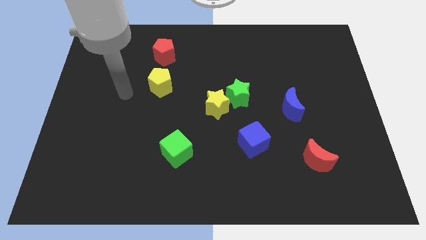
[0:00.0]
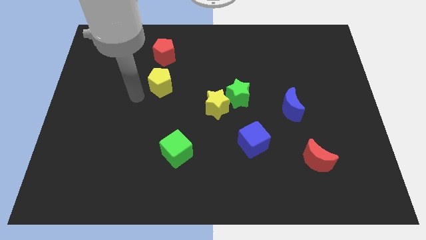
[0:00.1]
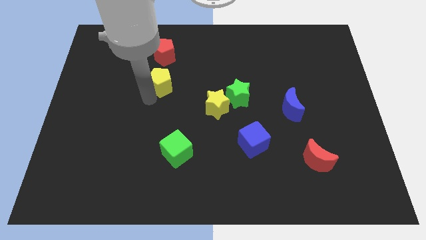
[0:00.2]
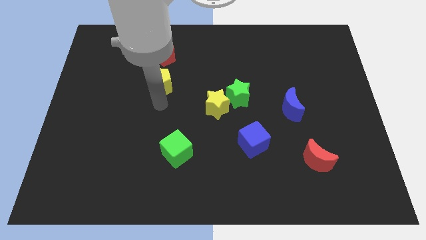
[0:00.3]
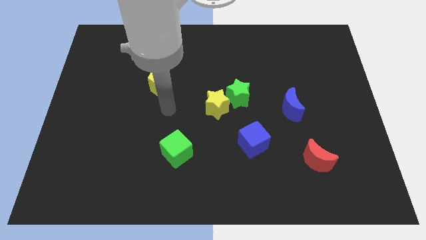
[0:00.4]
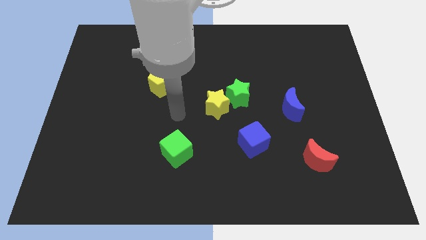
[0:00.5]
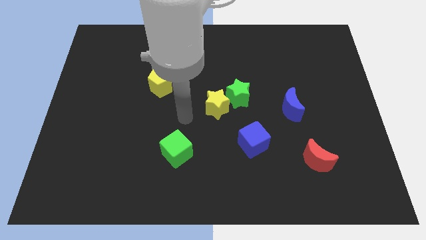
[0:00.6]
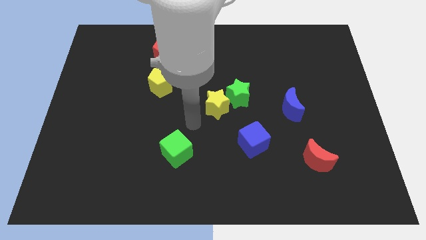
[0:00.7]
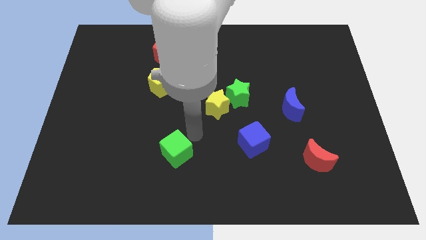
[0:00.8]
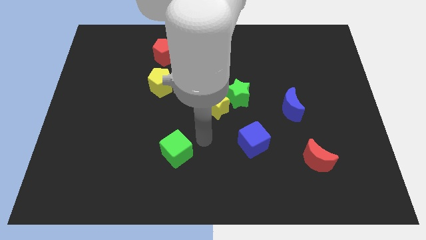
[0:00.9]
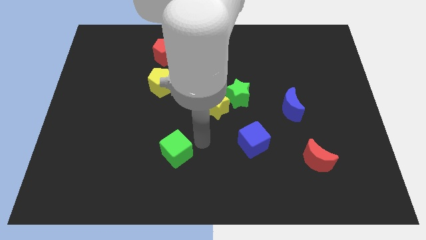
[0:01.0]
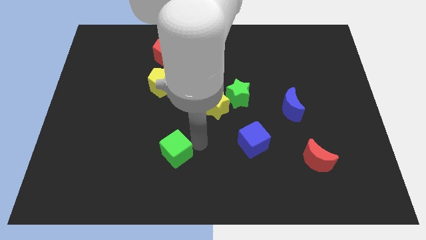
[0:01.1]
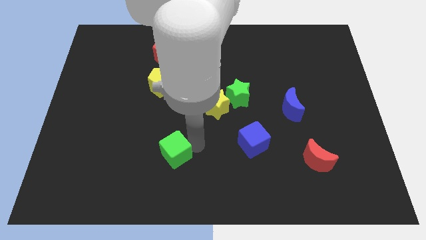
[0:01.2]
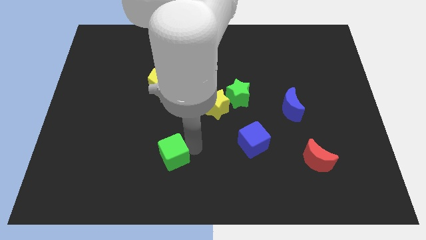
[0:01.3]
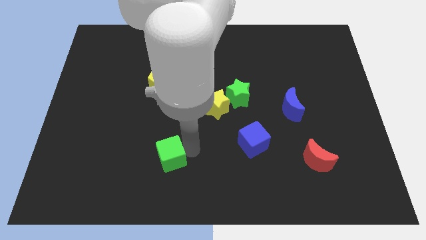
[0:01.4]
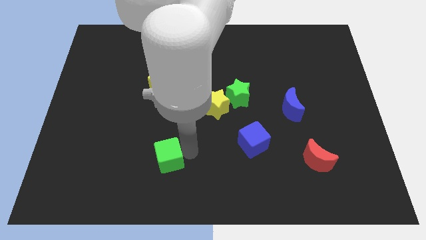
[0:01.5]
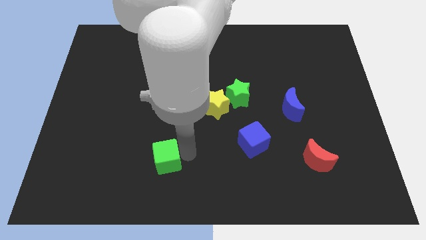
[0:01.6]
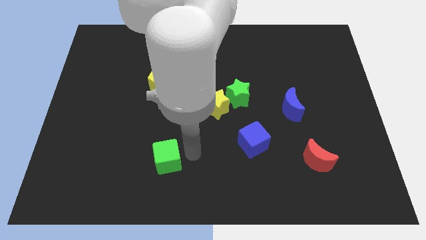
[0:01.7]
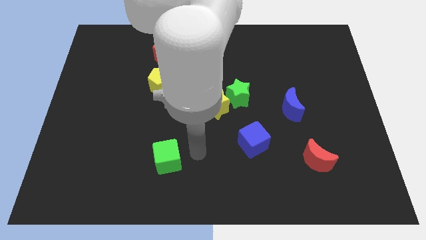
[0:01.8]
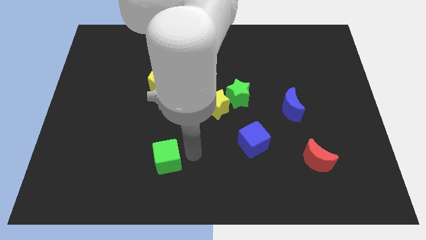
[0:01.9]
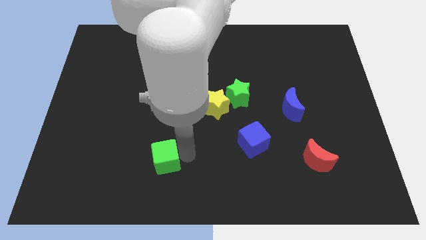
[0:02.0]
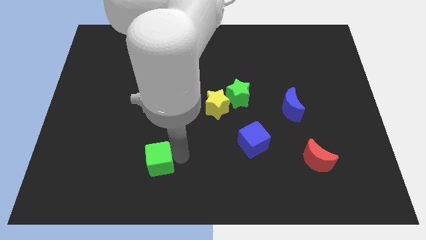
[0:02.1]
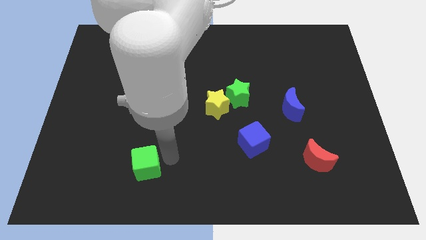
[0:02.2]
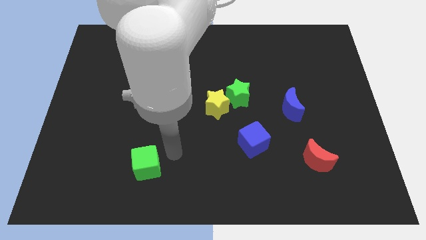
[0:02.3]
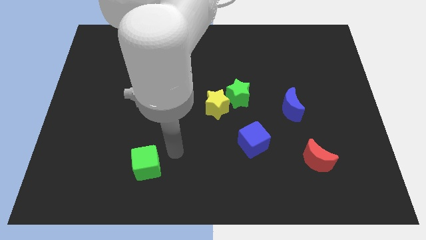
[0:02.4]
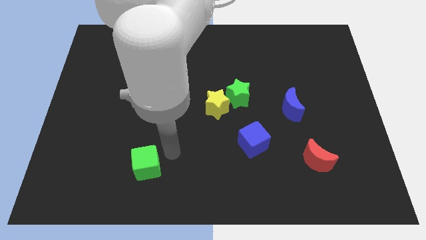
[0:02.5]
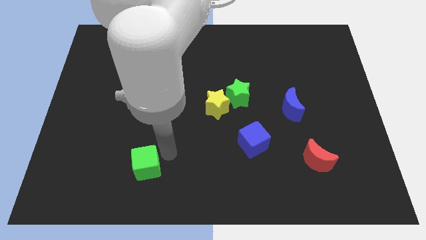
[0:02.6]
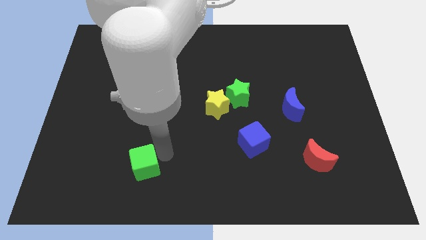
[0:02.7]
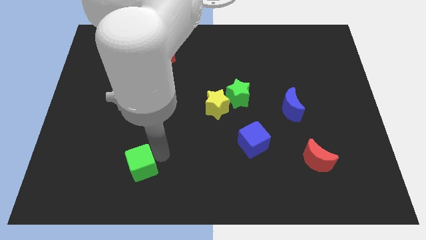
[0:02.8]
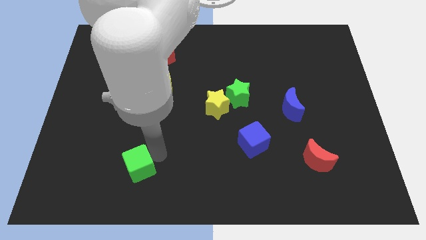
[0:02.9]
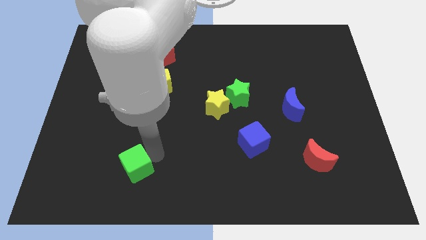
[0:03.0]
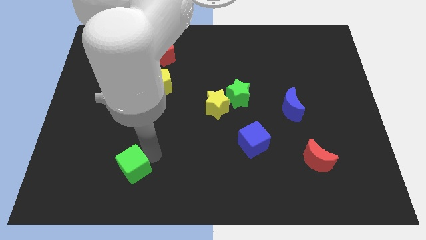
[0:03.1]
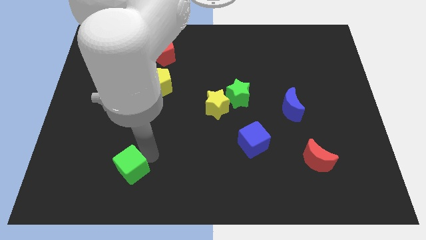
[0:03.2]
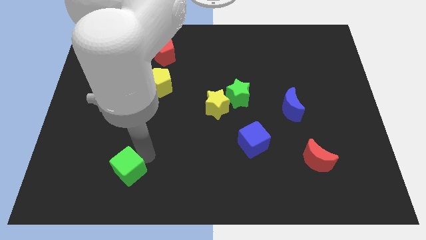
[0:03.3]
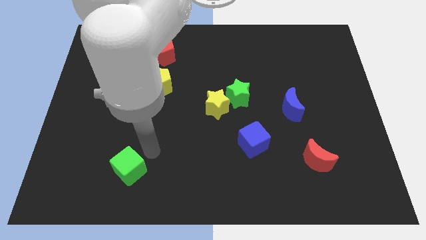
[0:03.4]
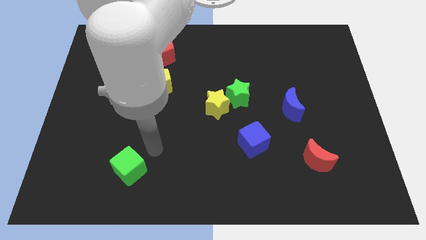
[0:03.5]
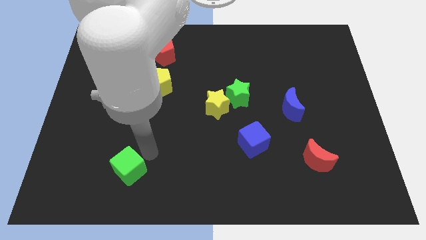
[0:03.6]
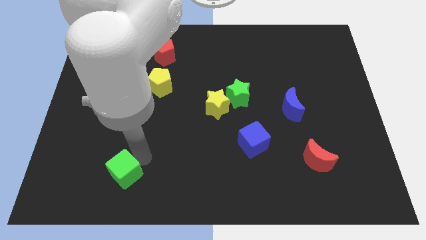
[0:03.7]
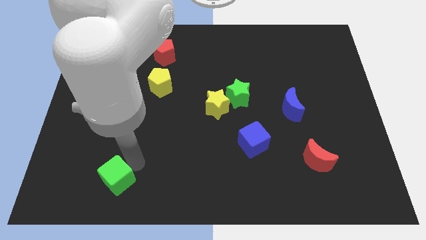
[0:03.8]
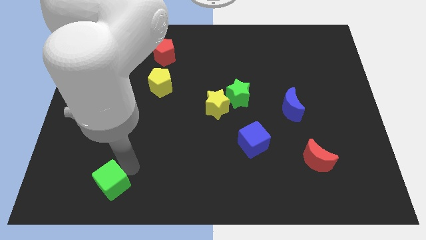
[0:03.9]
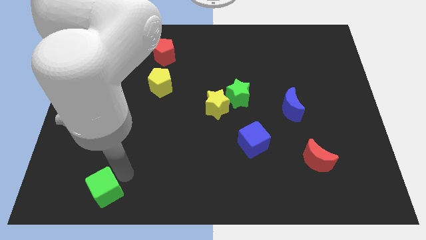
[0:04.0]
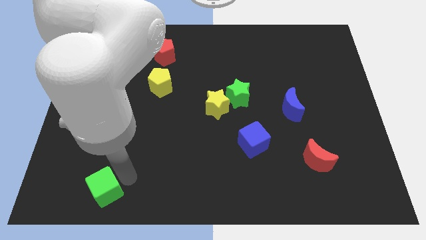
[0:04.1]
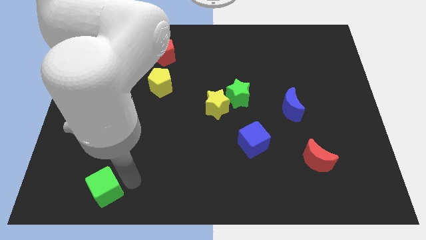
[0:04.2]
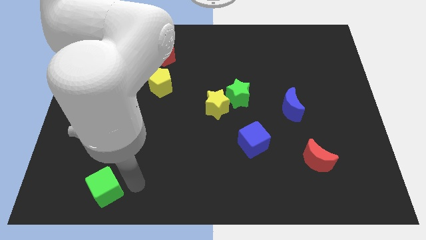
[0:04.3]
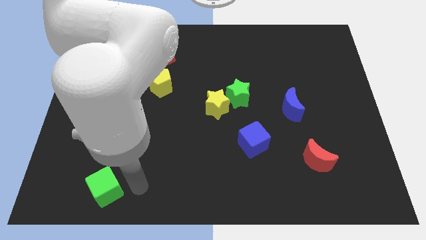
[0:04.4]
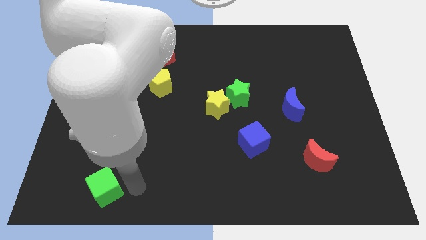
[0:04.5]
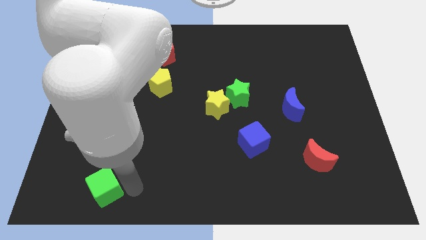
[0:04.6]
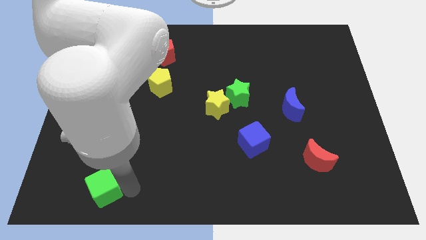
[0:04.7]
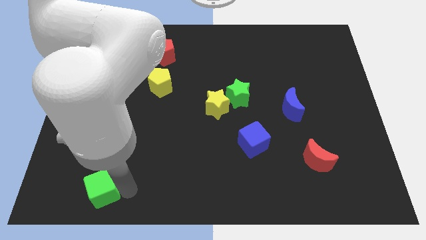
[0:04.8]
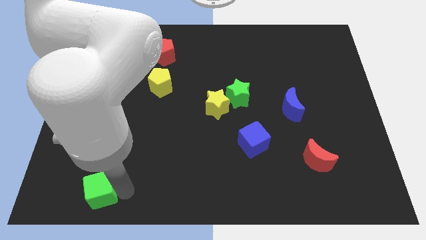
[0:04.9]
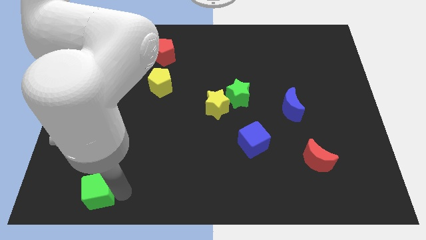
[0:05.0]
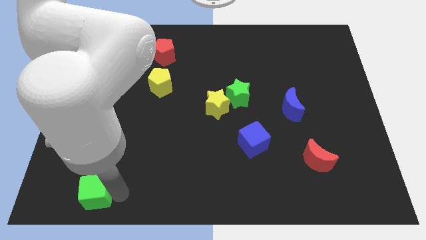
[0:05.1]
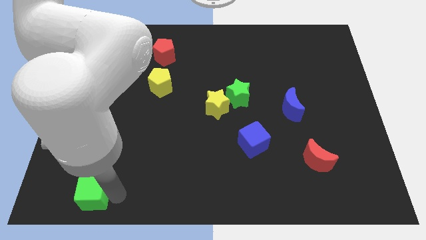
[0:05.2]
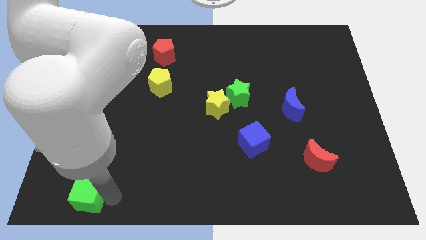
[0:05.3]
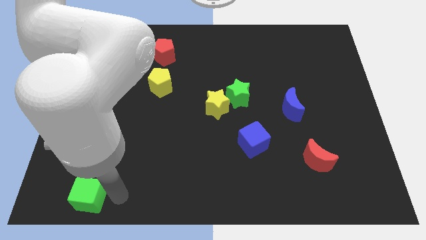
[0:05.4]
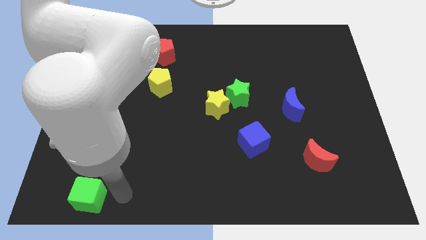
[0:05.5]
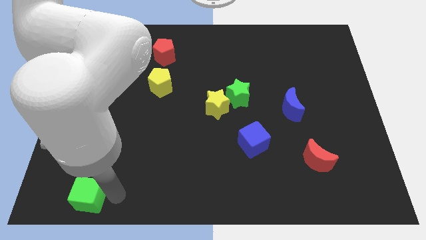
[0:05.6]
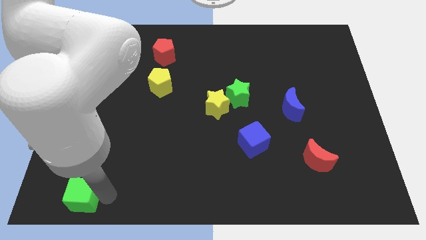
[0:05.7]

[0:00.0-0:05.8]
push the green cube to the bottom left
